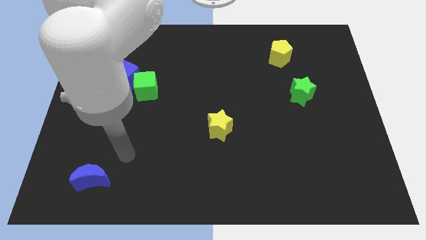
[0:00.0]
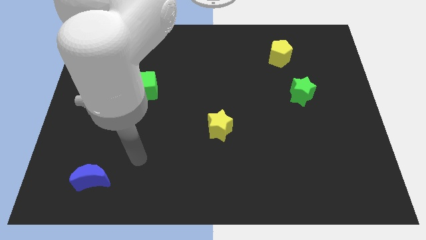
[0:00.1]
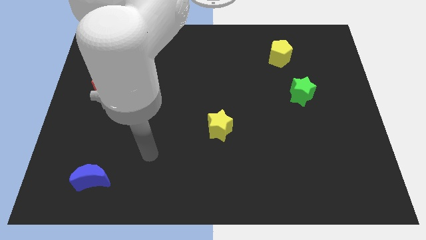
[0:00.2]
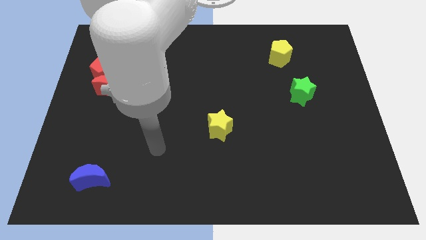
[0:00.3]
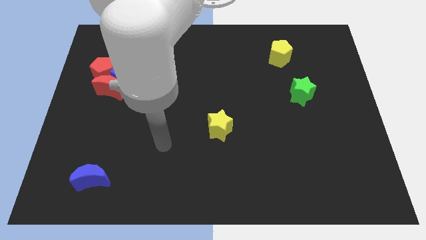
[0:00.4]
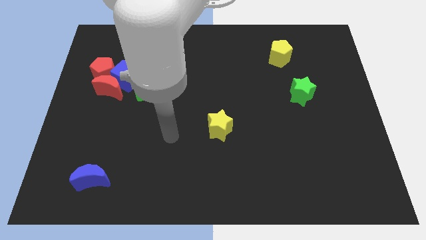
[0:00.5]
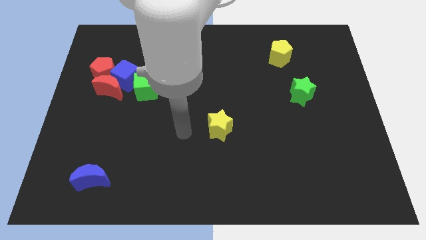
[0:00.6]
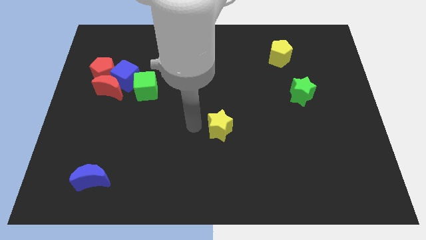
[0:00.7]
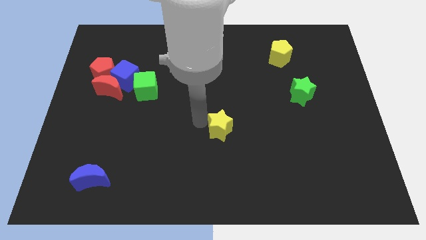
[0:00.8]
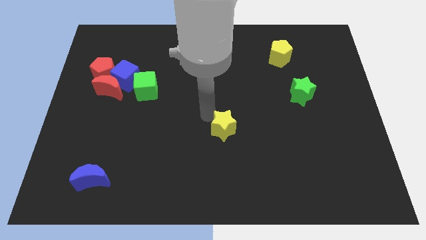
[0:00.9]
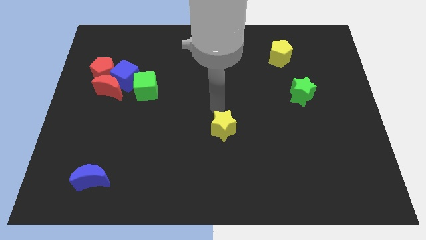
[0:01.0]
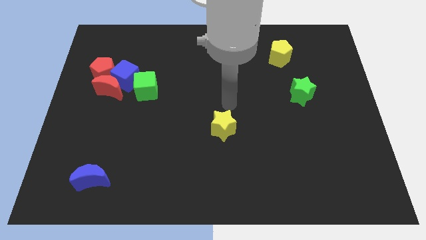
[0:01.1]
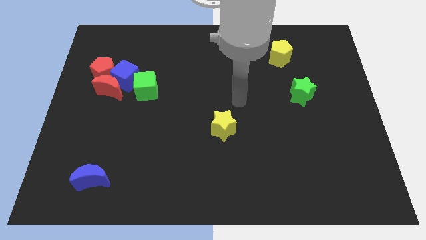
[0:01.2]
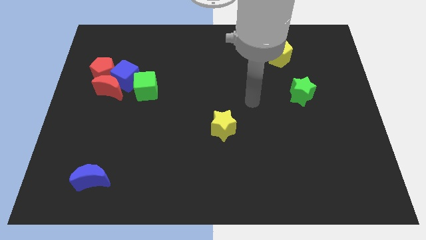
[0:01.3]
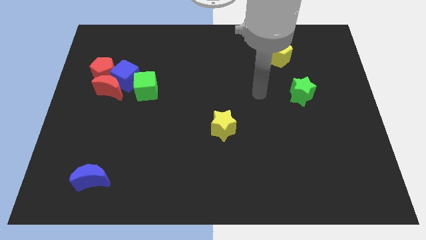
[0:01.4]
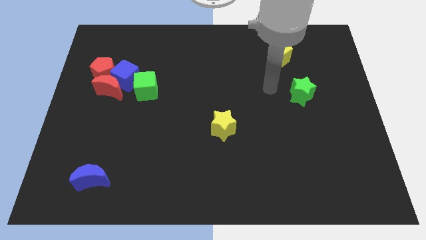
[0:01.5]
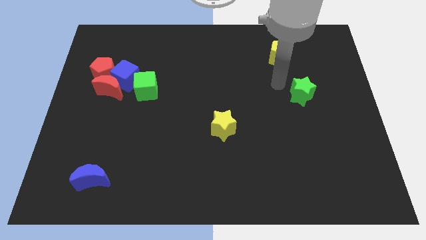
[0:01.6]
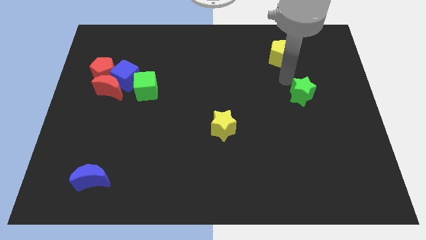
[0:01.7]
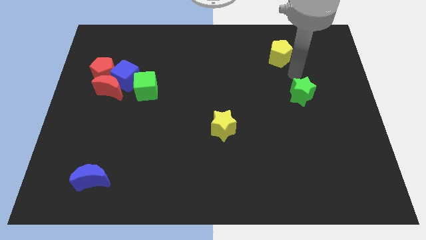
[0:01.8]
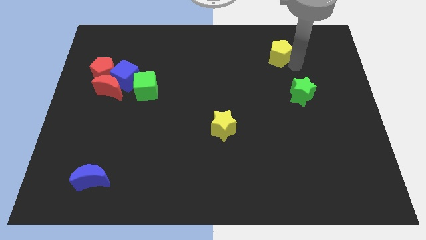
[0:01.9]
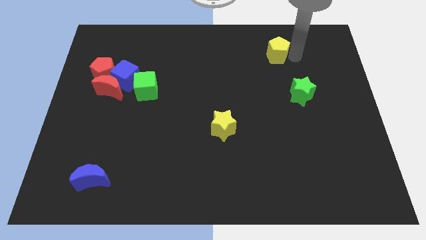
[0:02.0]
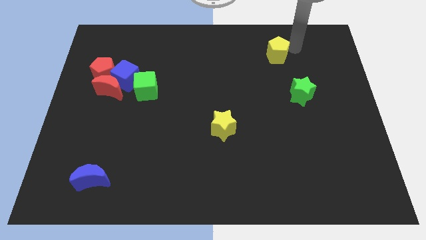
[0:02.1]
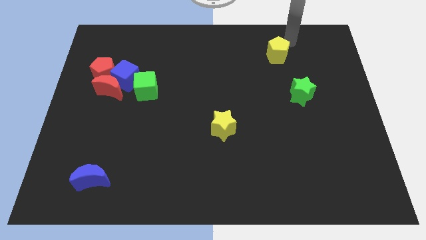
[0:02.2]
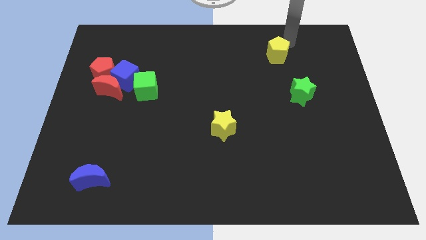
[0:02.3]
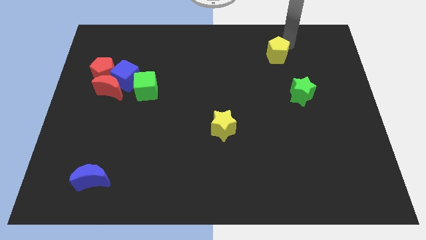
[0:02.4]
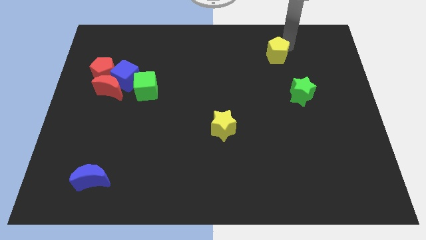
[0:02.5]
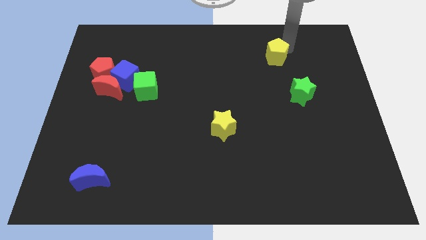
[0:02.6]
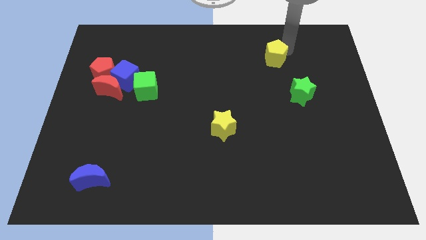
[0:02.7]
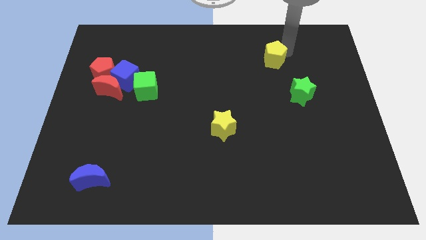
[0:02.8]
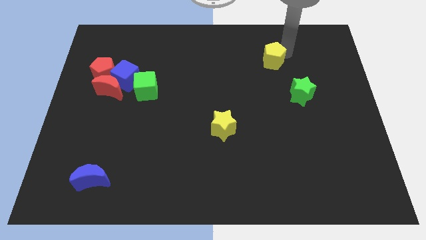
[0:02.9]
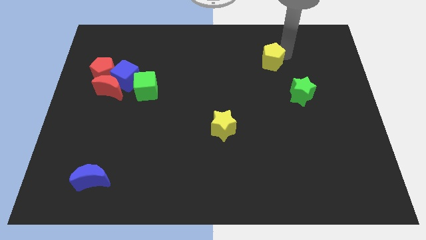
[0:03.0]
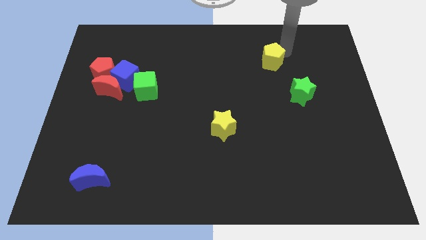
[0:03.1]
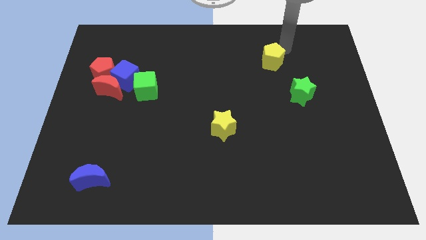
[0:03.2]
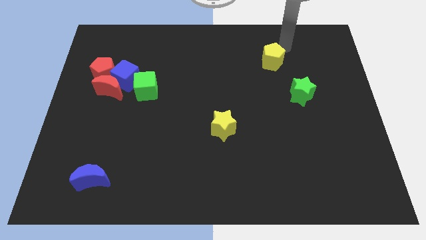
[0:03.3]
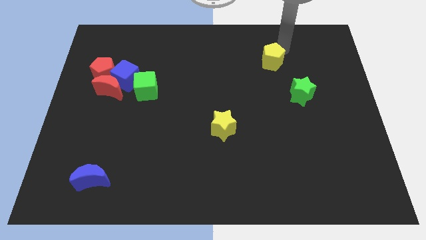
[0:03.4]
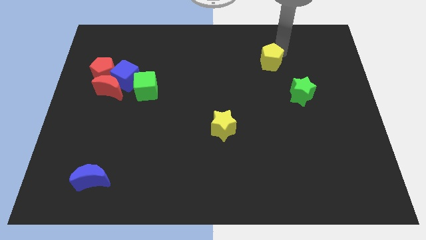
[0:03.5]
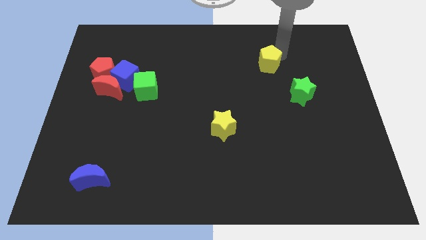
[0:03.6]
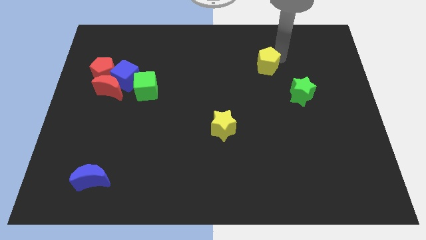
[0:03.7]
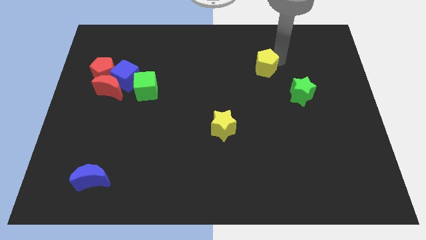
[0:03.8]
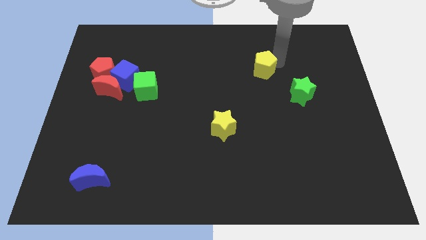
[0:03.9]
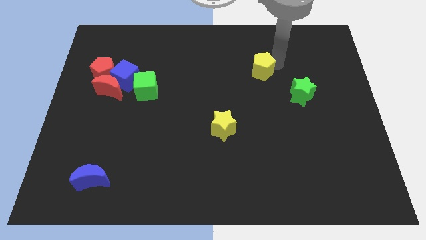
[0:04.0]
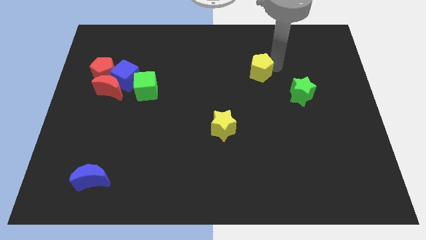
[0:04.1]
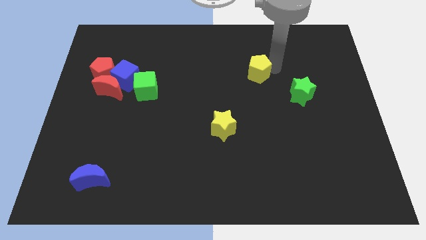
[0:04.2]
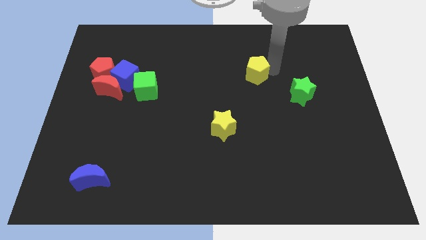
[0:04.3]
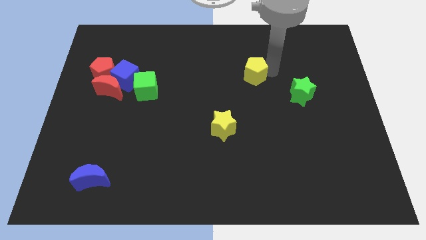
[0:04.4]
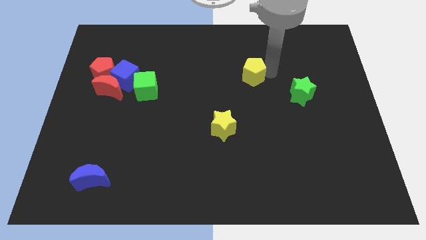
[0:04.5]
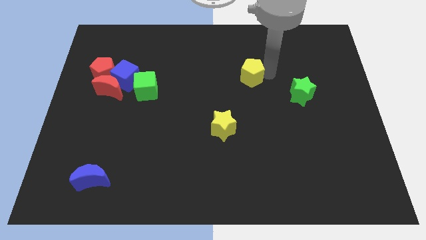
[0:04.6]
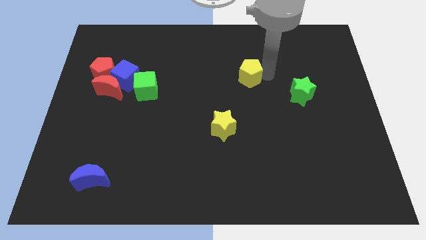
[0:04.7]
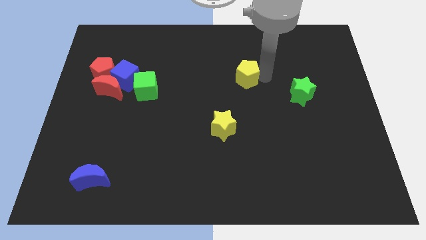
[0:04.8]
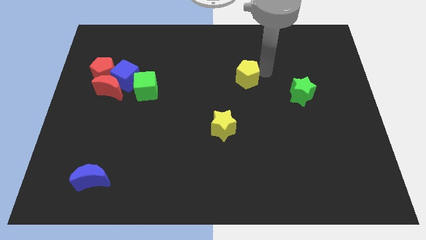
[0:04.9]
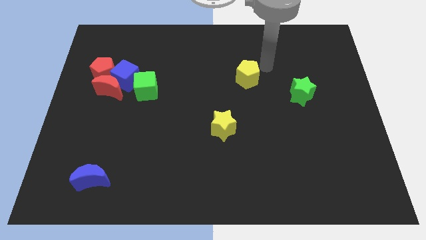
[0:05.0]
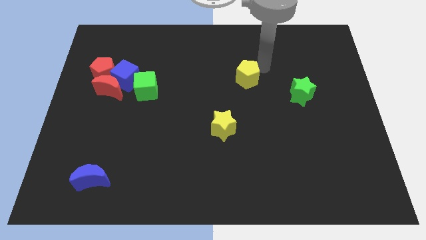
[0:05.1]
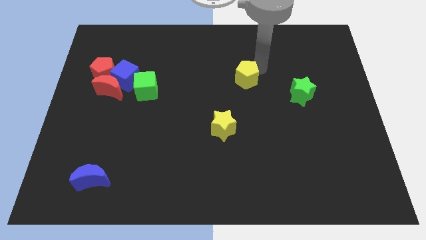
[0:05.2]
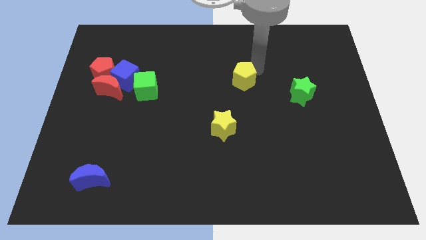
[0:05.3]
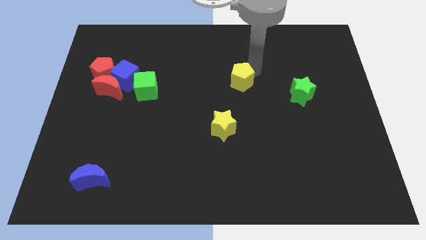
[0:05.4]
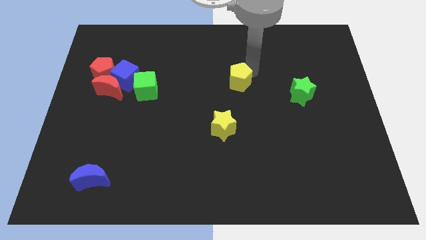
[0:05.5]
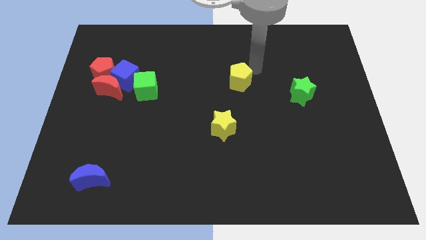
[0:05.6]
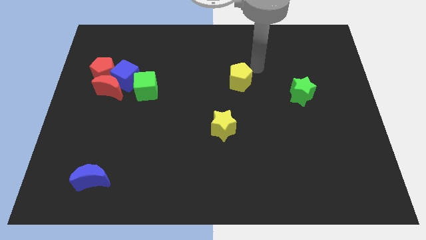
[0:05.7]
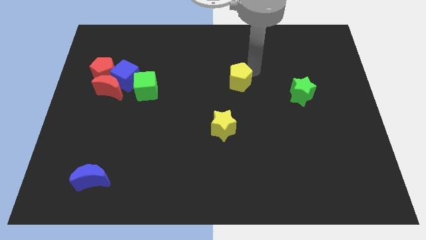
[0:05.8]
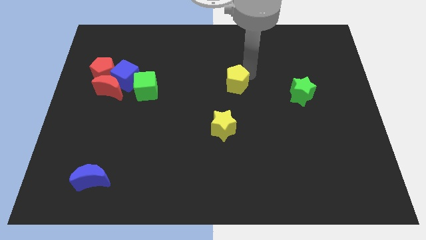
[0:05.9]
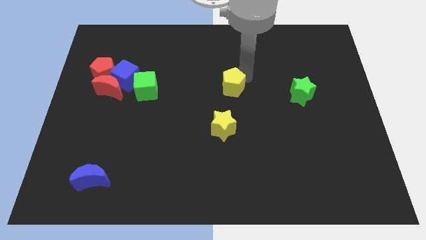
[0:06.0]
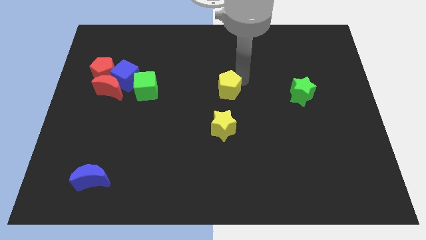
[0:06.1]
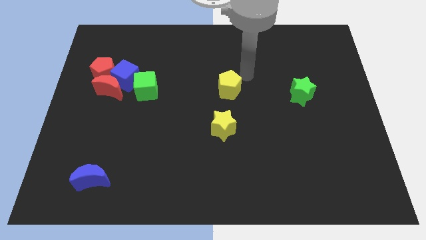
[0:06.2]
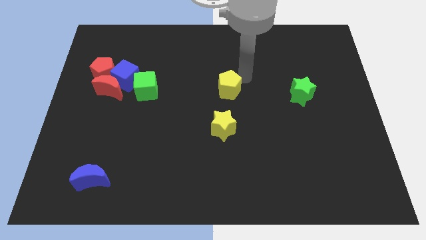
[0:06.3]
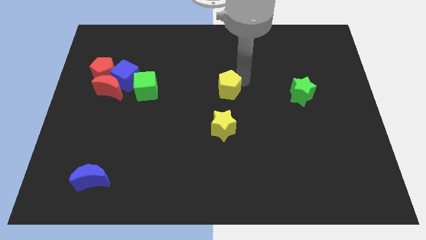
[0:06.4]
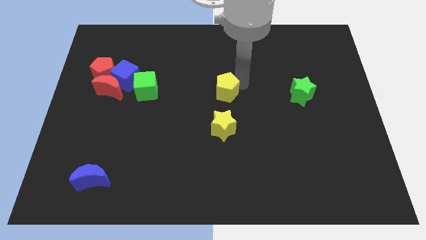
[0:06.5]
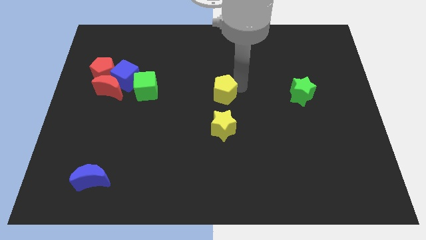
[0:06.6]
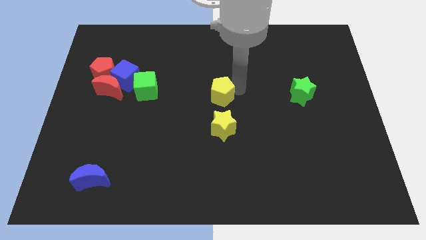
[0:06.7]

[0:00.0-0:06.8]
move the yellow pentagon downwards and left diagonally

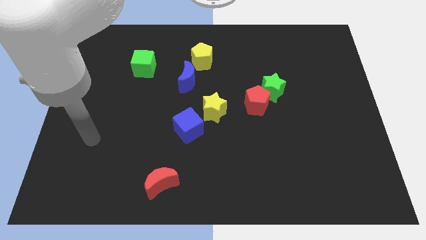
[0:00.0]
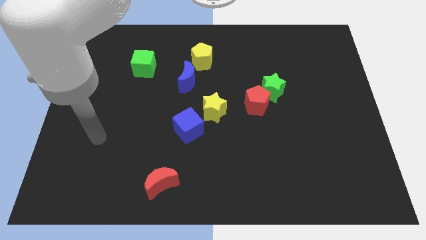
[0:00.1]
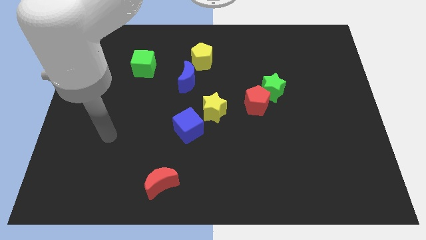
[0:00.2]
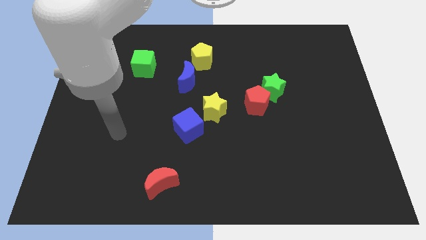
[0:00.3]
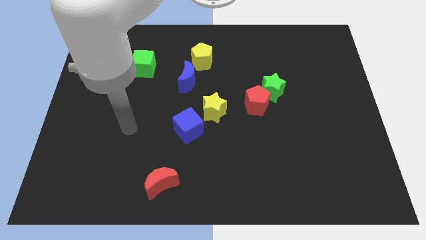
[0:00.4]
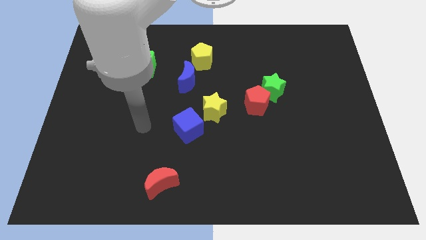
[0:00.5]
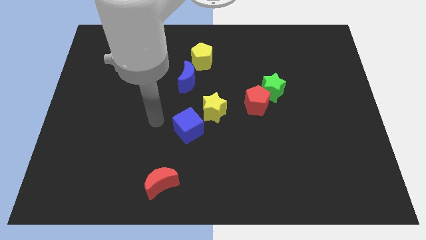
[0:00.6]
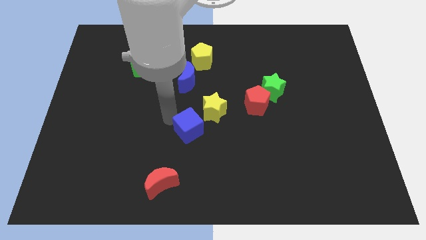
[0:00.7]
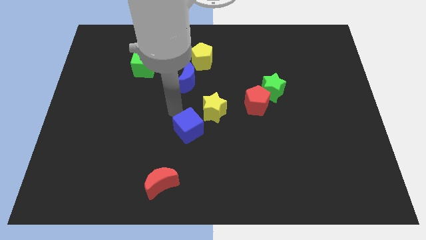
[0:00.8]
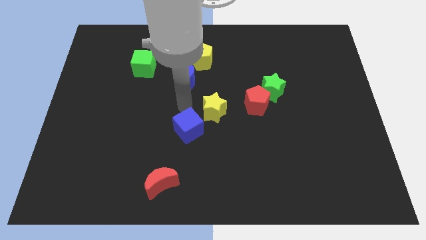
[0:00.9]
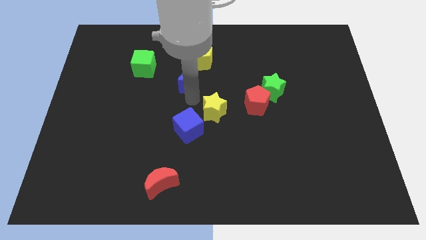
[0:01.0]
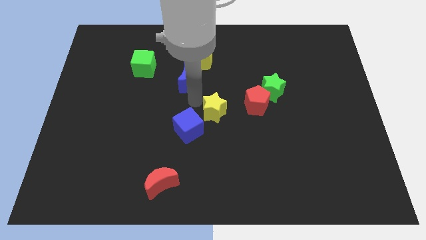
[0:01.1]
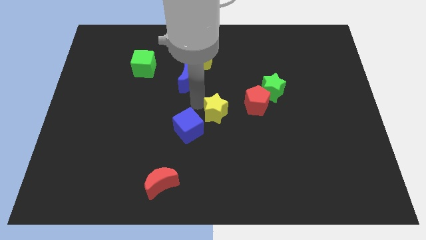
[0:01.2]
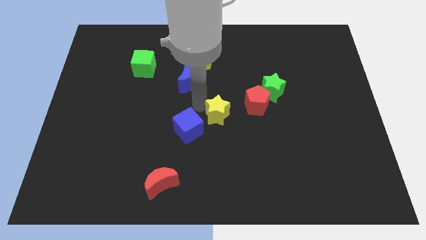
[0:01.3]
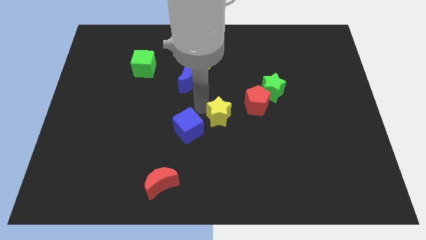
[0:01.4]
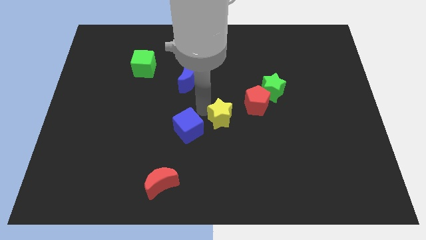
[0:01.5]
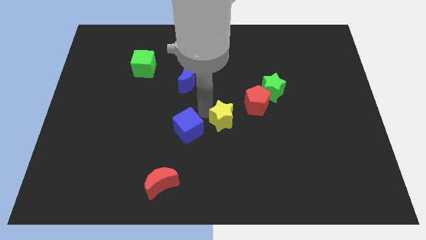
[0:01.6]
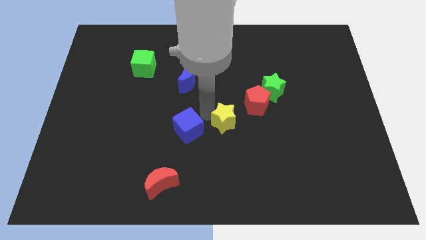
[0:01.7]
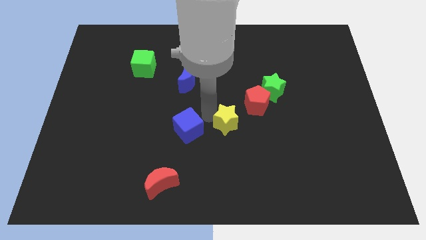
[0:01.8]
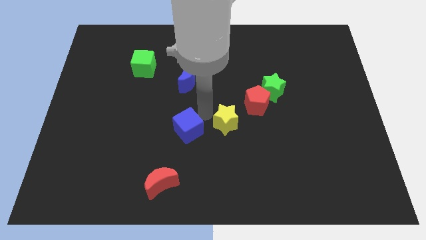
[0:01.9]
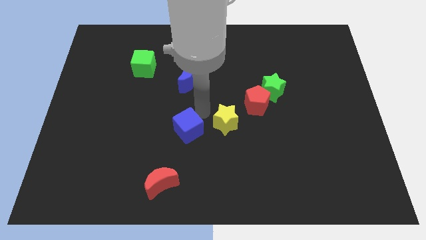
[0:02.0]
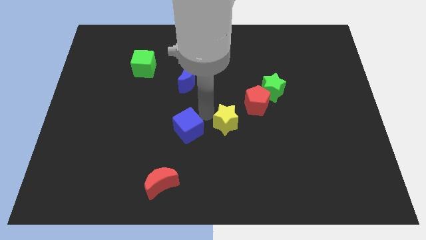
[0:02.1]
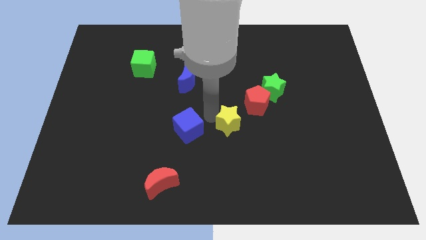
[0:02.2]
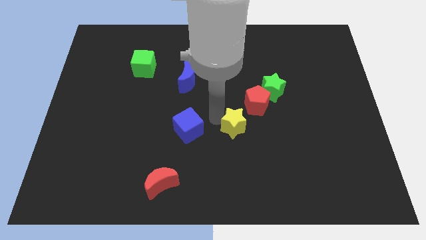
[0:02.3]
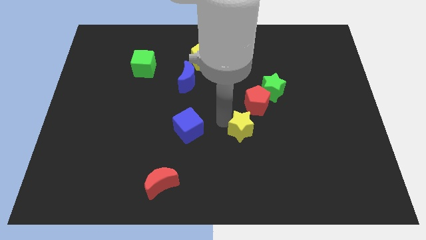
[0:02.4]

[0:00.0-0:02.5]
move the yellow star down and to the right diagonally somewhat
